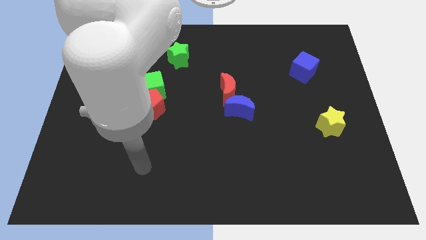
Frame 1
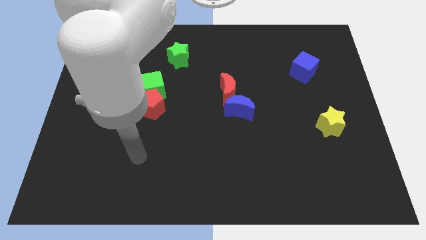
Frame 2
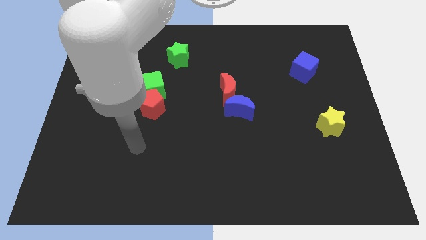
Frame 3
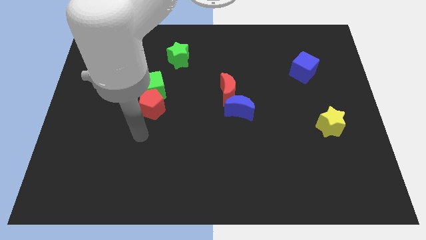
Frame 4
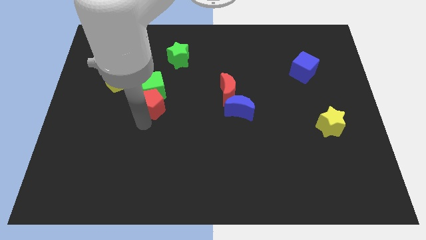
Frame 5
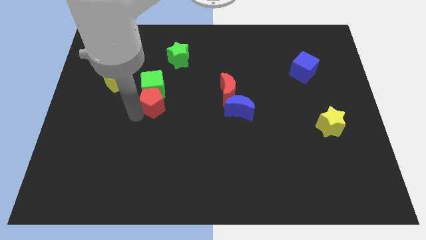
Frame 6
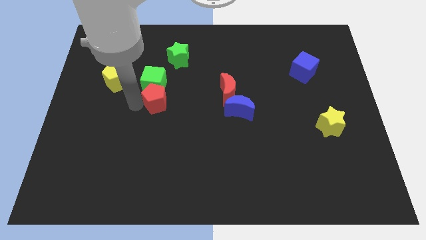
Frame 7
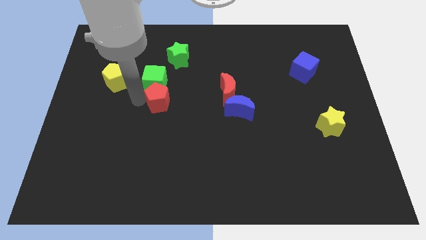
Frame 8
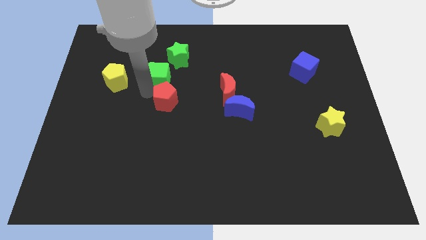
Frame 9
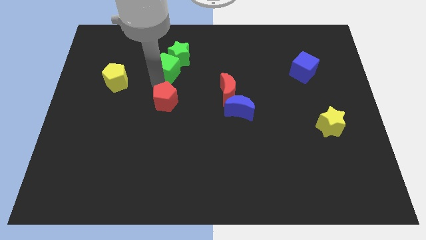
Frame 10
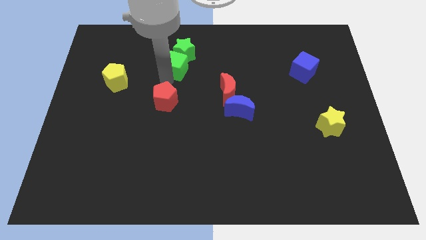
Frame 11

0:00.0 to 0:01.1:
move the red pentagon away from the green cube

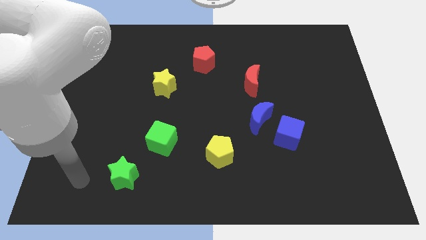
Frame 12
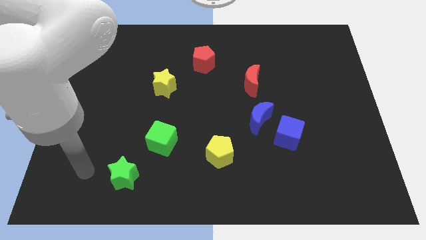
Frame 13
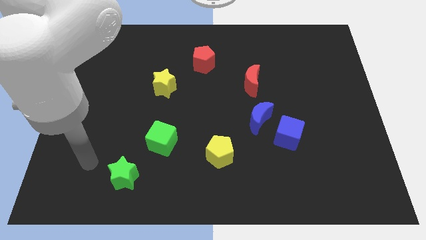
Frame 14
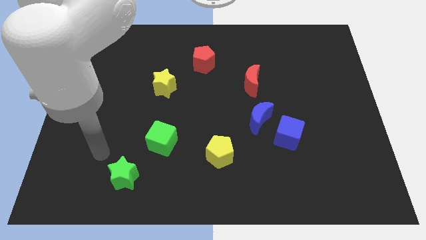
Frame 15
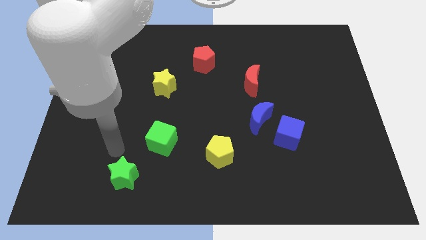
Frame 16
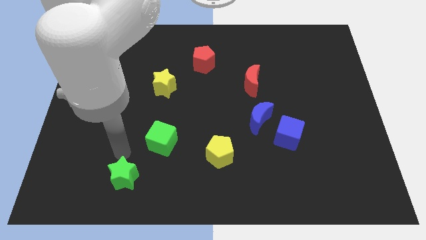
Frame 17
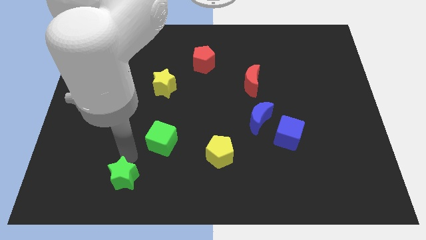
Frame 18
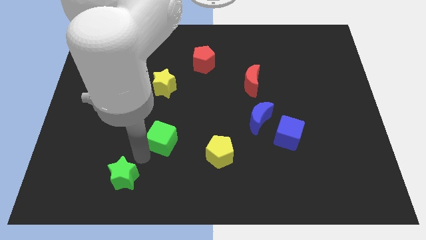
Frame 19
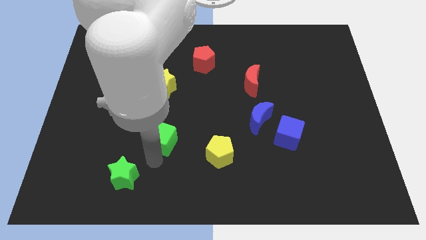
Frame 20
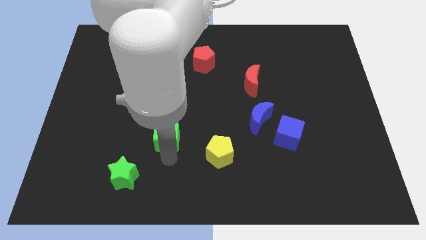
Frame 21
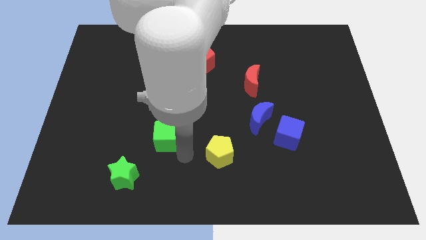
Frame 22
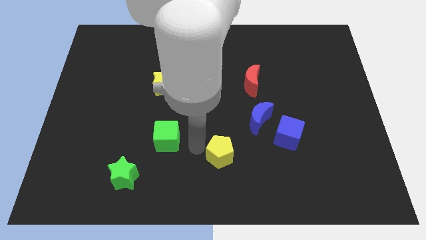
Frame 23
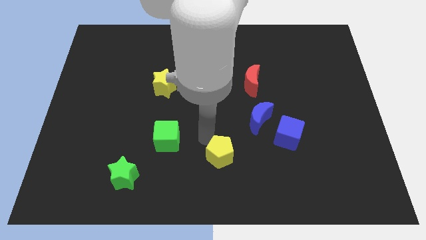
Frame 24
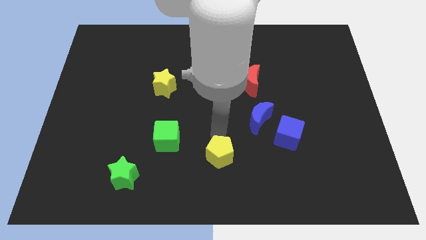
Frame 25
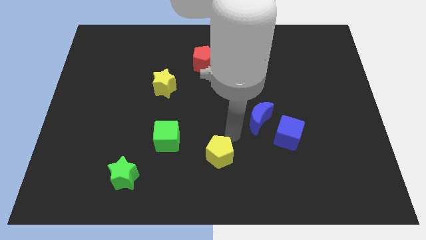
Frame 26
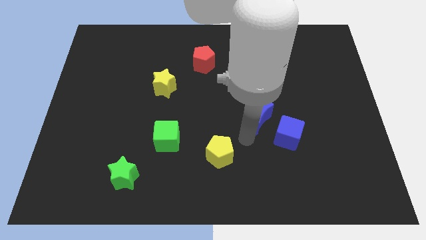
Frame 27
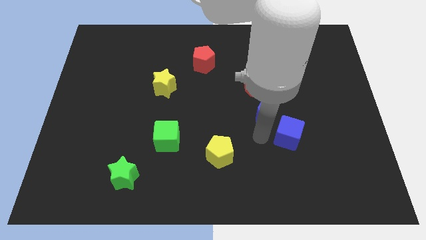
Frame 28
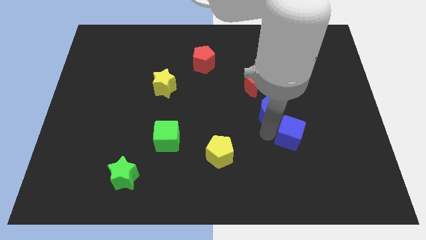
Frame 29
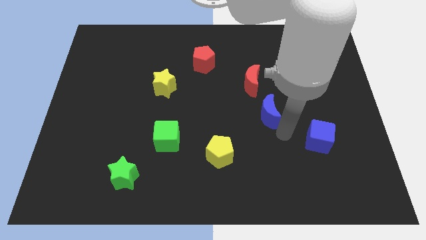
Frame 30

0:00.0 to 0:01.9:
pull the blue moon apart from the blue cube

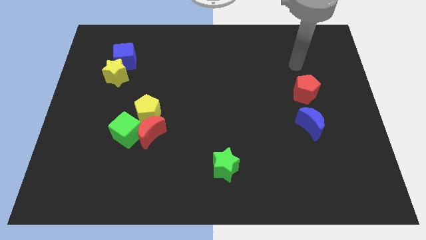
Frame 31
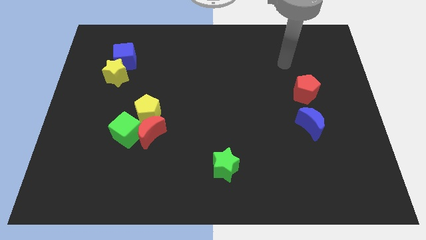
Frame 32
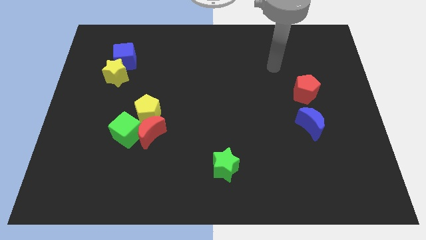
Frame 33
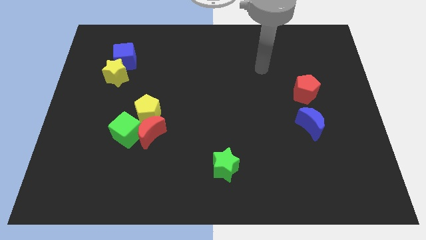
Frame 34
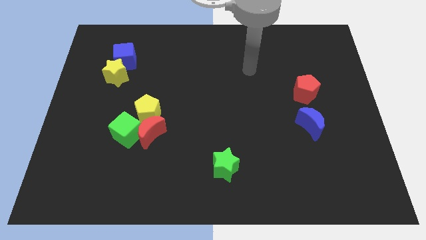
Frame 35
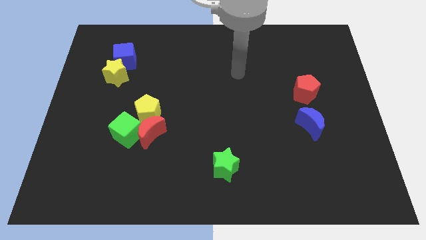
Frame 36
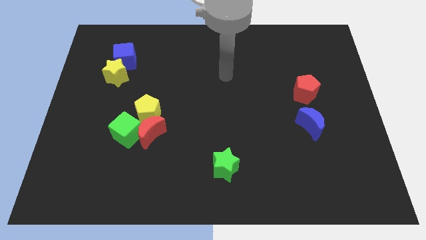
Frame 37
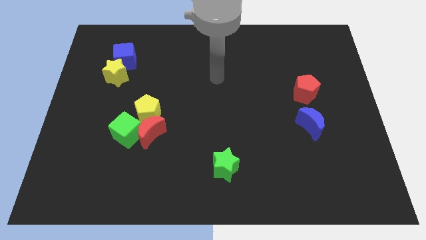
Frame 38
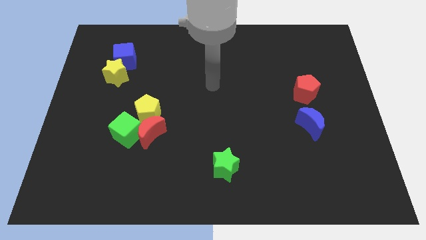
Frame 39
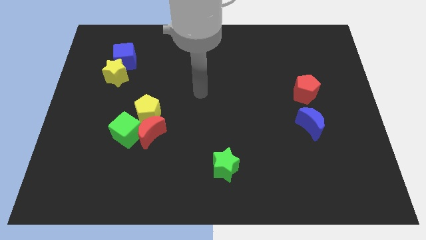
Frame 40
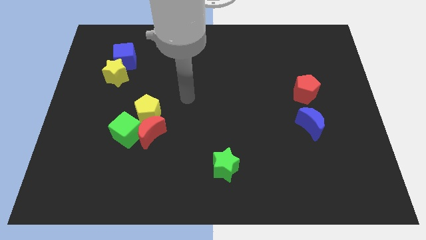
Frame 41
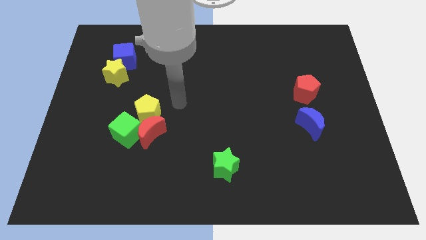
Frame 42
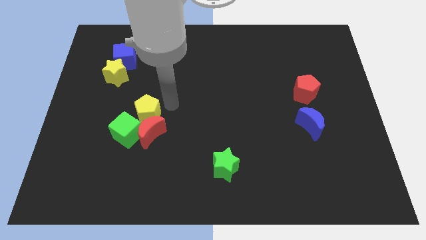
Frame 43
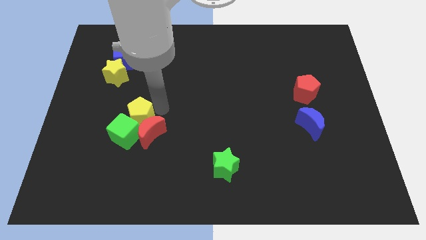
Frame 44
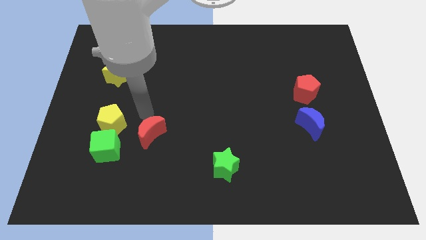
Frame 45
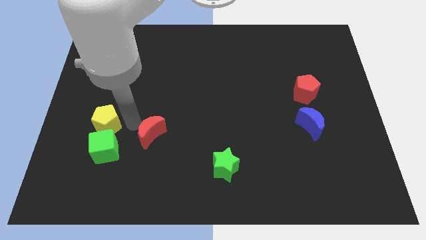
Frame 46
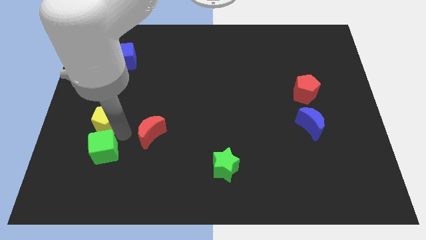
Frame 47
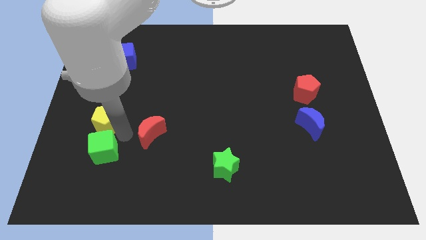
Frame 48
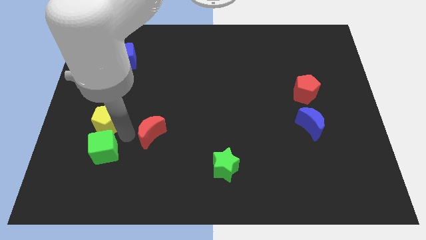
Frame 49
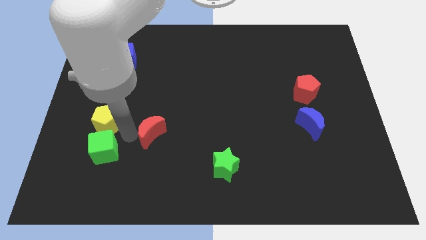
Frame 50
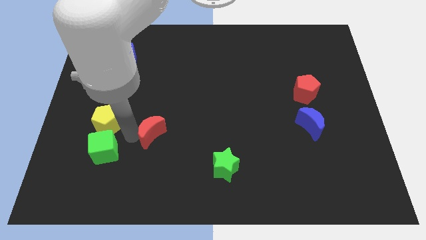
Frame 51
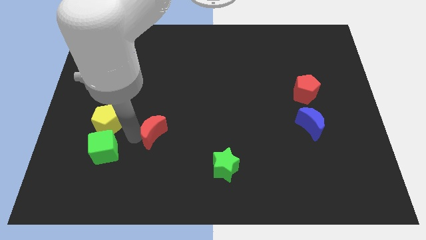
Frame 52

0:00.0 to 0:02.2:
separate the red moon from the green cube and yellow pentagon

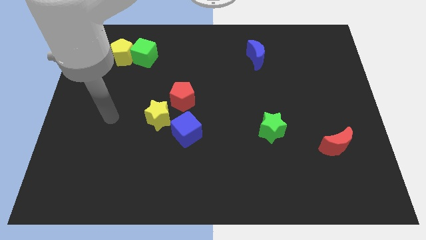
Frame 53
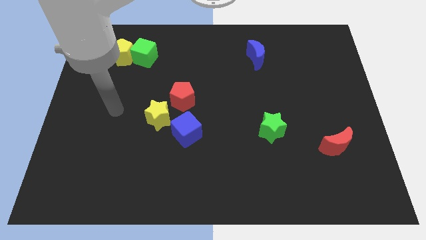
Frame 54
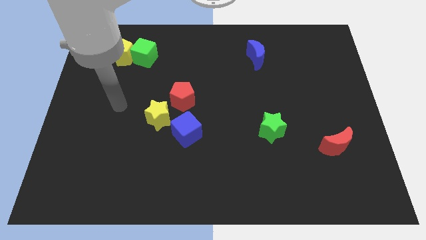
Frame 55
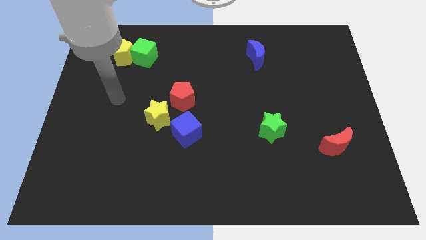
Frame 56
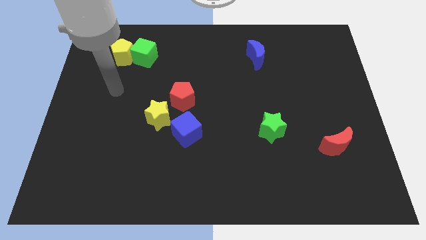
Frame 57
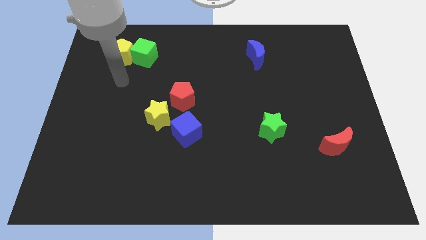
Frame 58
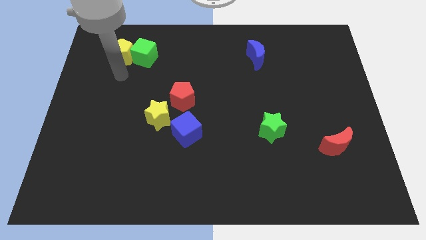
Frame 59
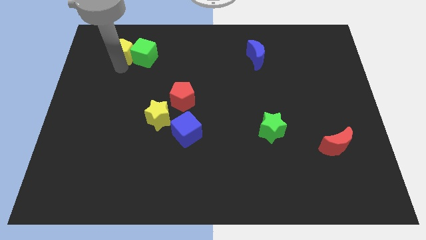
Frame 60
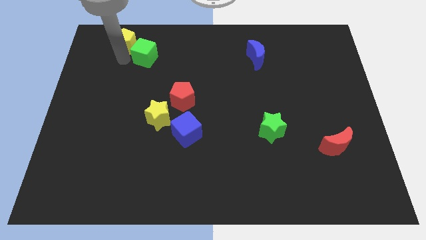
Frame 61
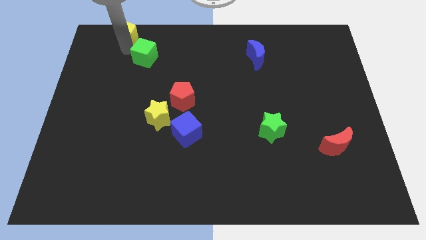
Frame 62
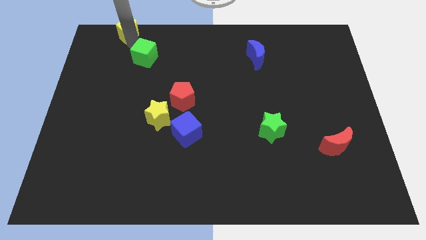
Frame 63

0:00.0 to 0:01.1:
move the green cube away from the yellow pentagon

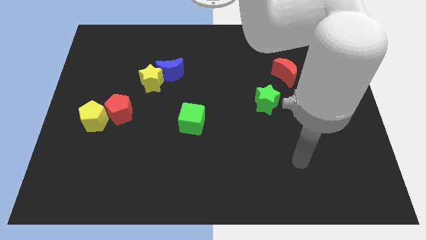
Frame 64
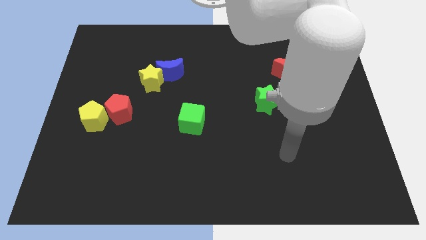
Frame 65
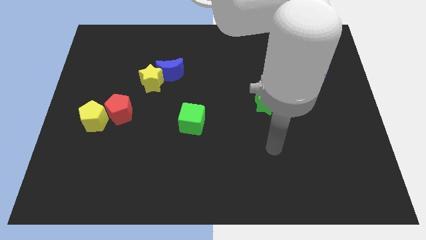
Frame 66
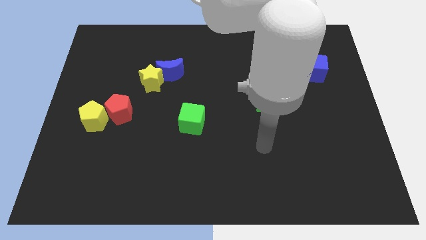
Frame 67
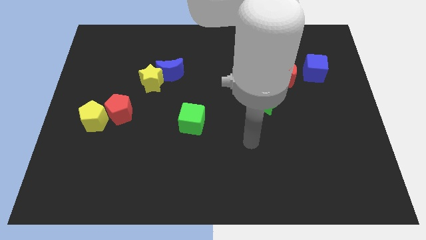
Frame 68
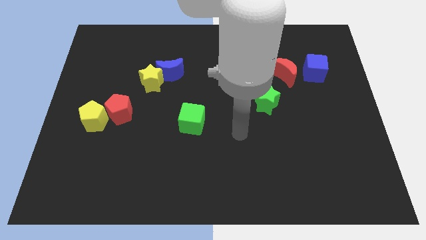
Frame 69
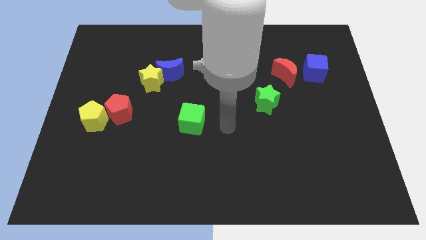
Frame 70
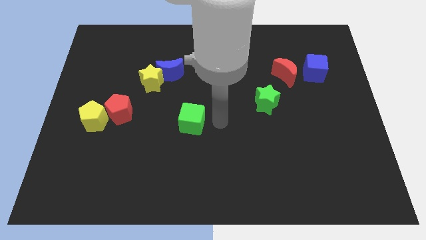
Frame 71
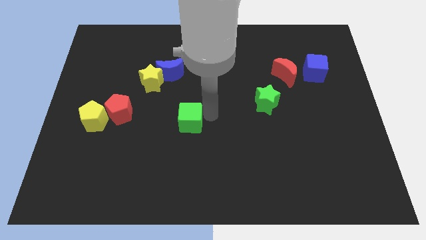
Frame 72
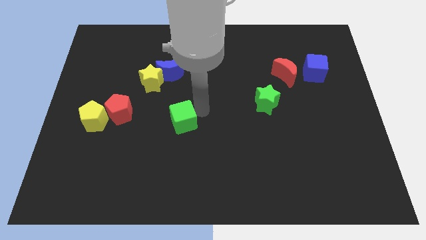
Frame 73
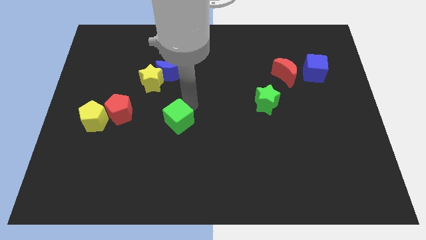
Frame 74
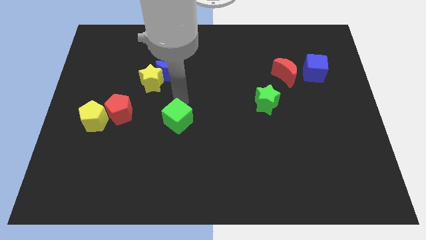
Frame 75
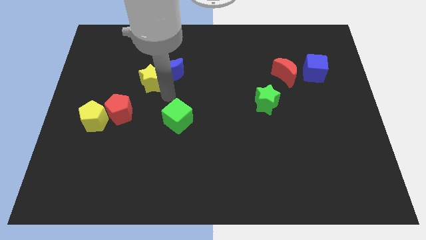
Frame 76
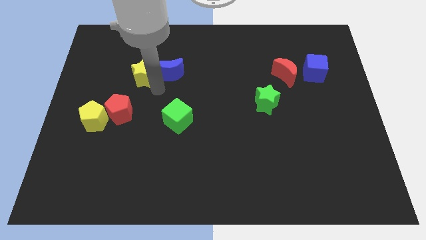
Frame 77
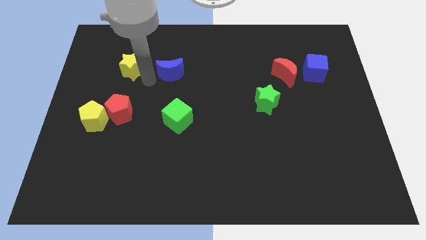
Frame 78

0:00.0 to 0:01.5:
move the blue moon away from the yellow star

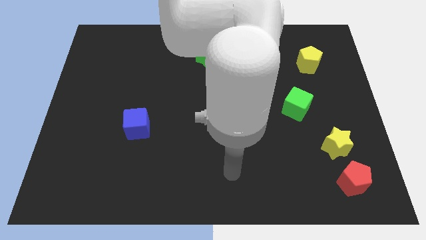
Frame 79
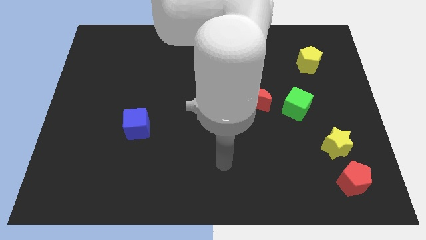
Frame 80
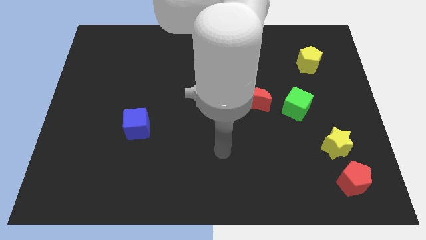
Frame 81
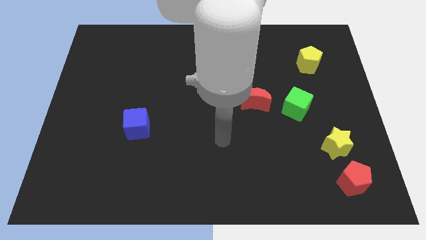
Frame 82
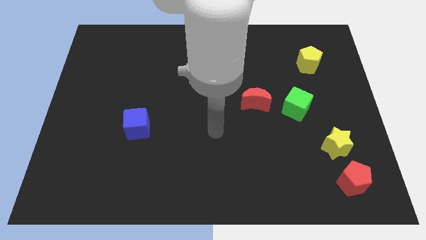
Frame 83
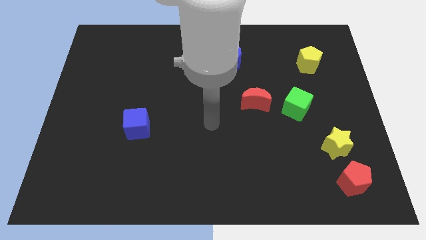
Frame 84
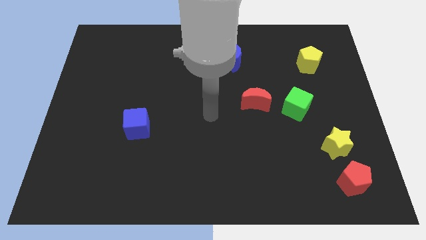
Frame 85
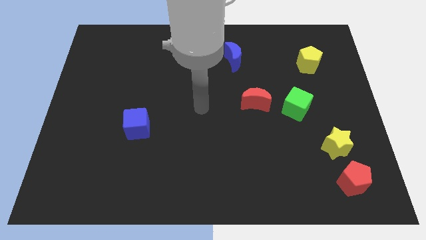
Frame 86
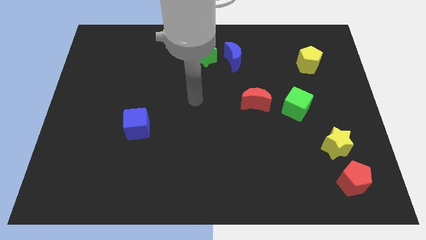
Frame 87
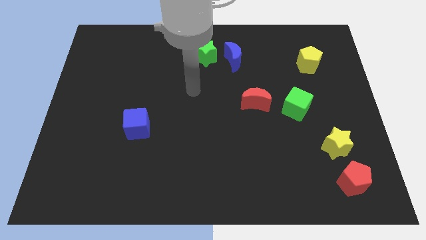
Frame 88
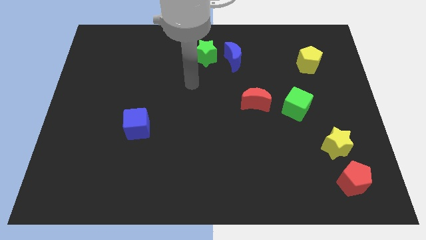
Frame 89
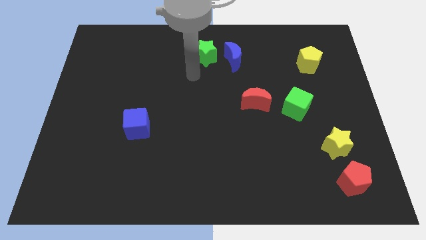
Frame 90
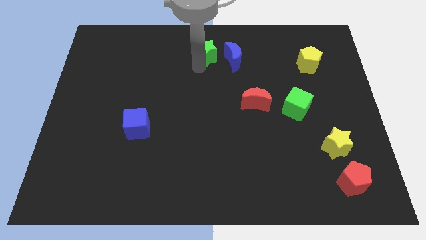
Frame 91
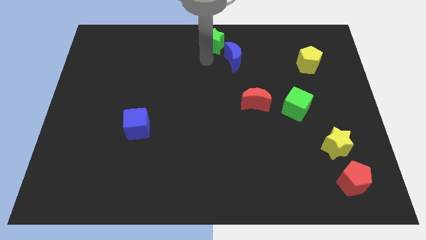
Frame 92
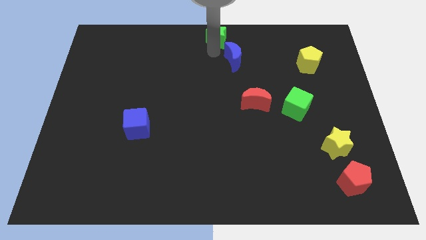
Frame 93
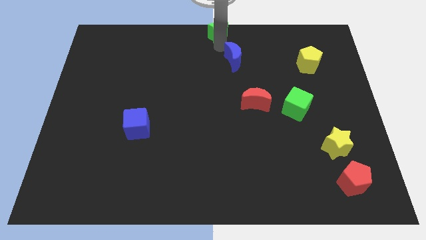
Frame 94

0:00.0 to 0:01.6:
move the blue moon away from the green star
